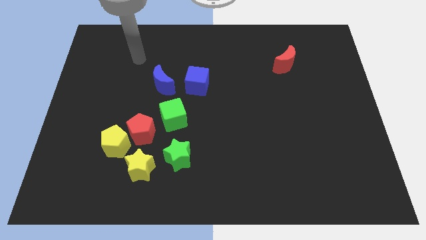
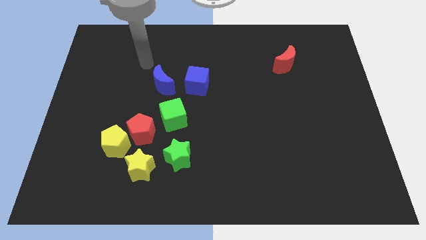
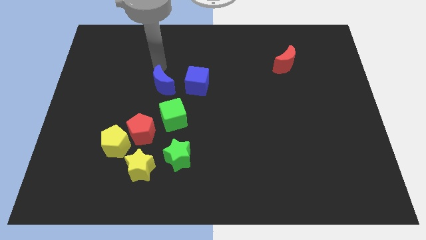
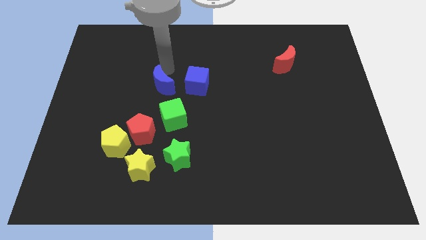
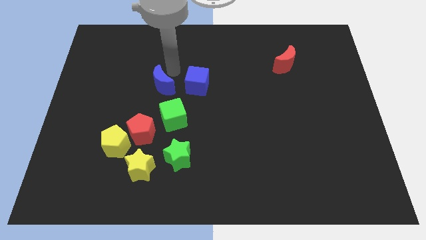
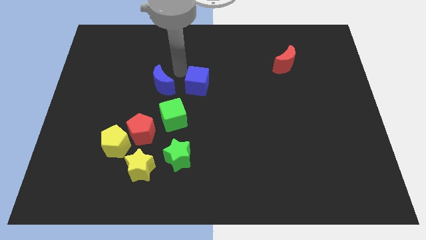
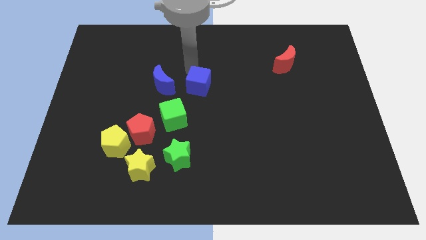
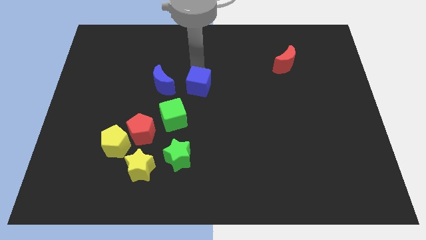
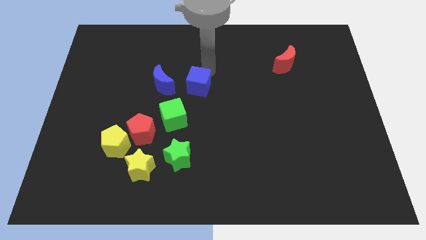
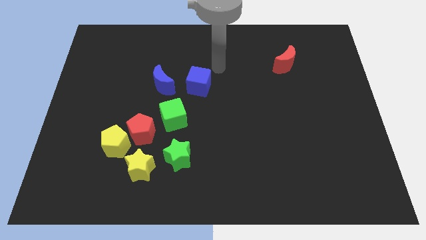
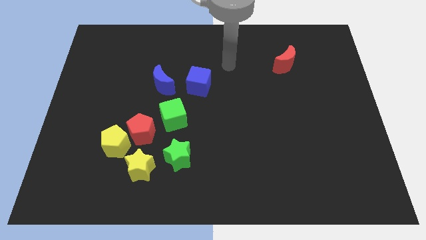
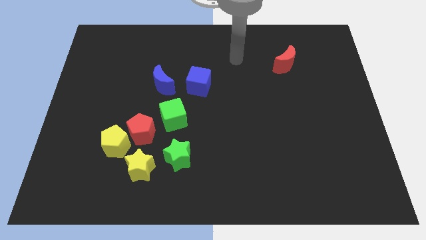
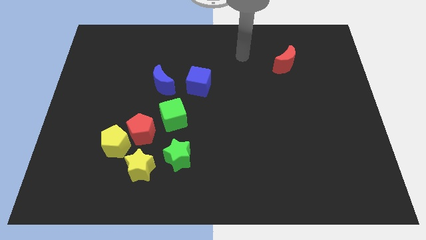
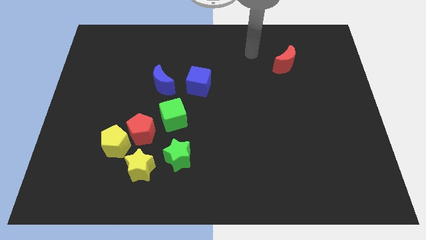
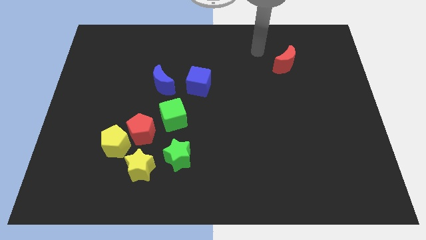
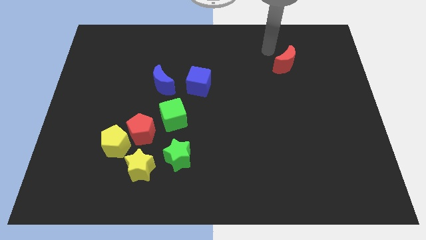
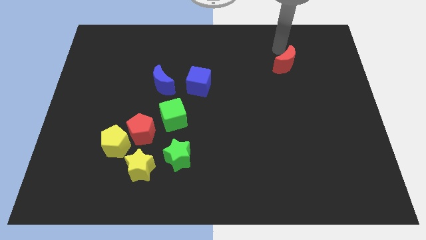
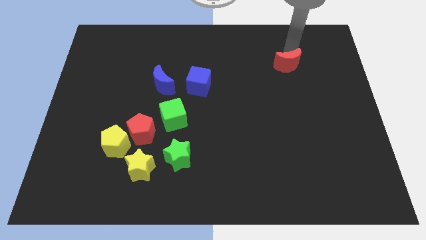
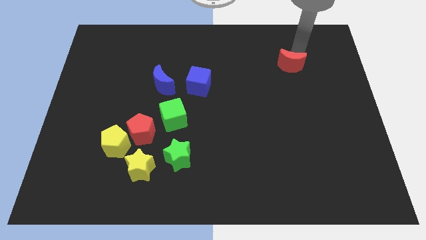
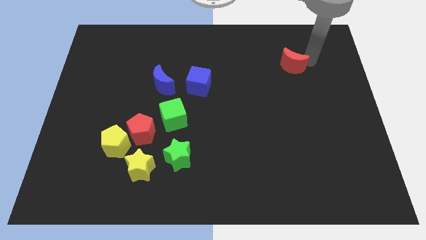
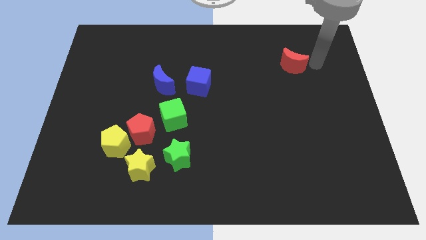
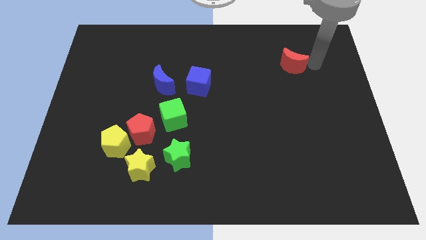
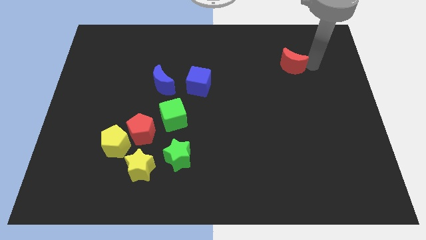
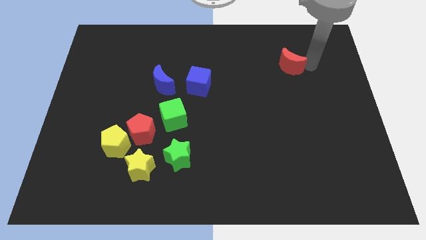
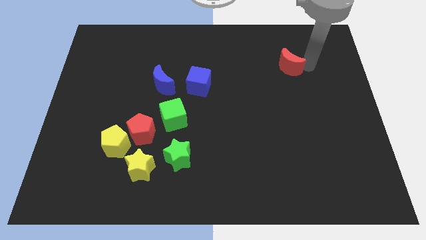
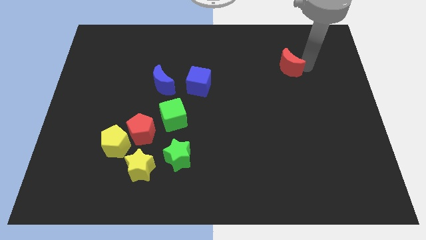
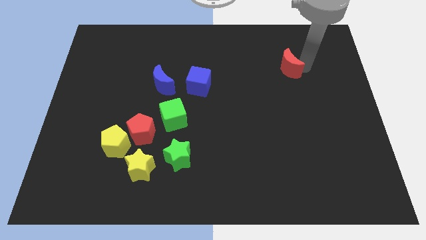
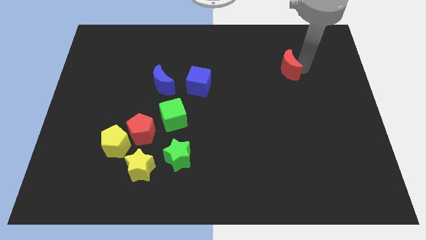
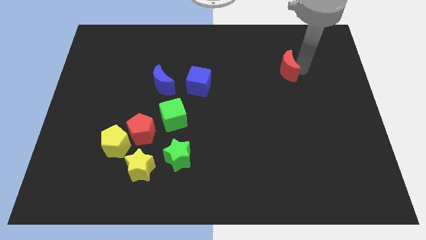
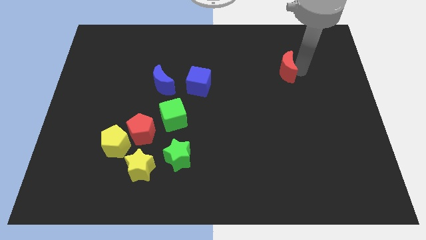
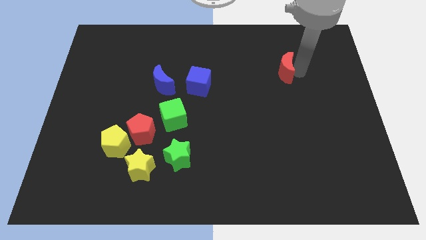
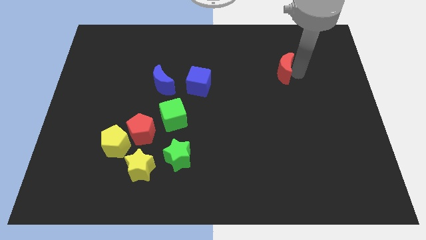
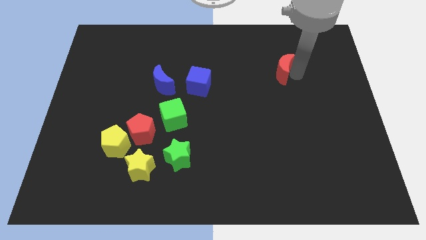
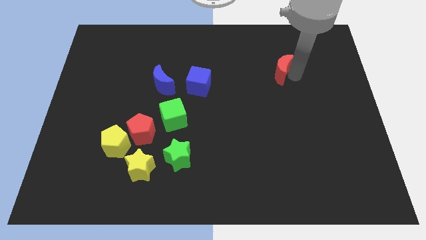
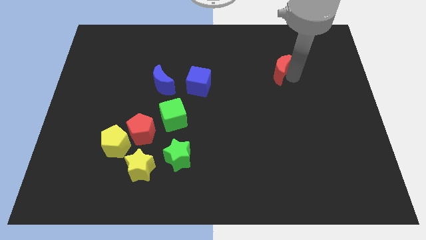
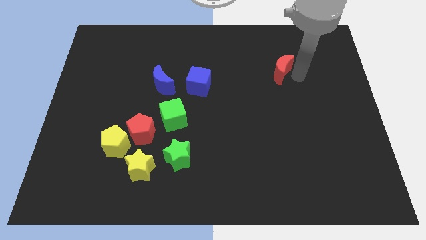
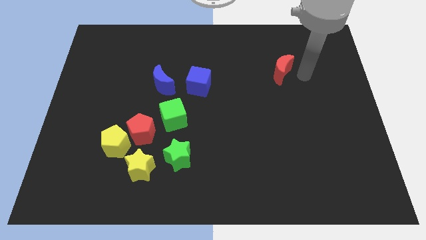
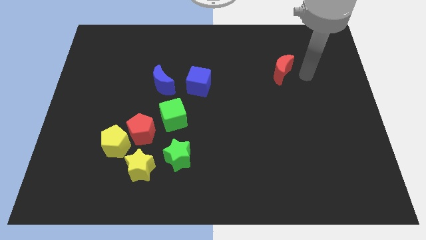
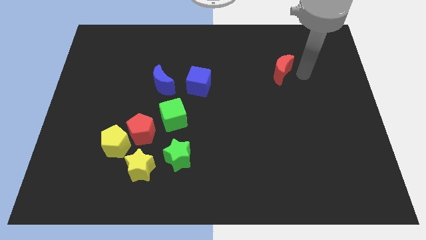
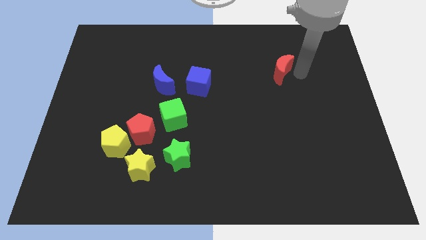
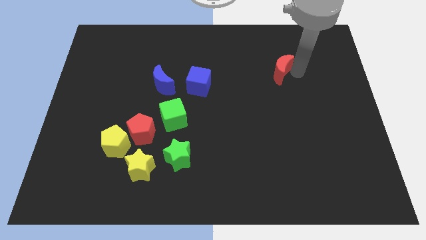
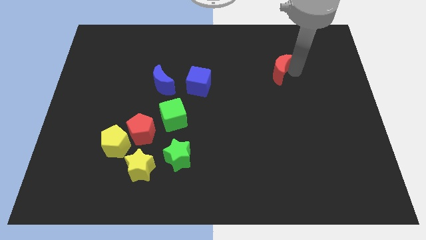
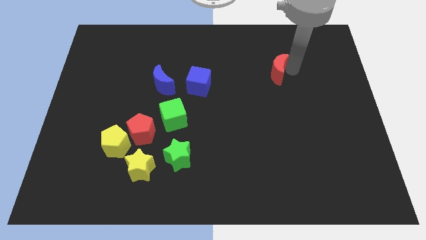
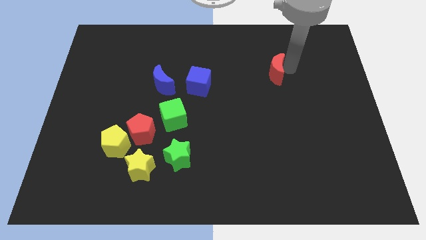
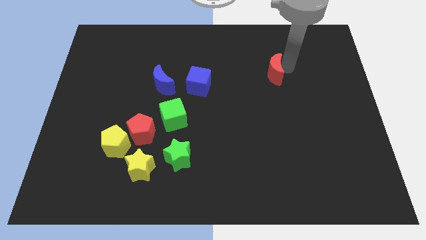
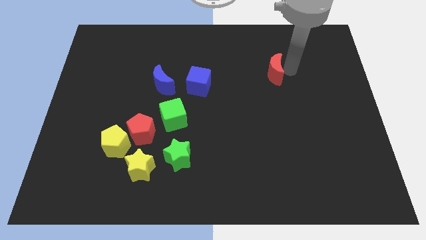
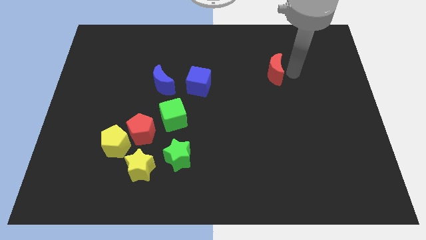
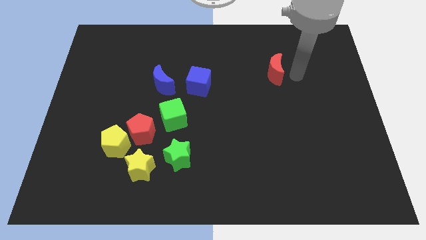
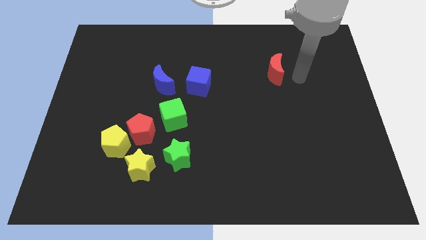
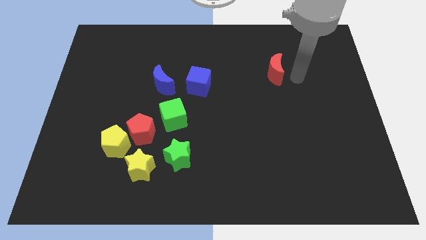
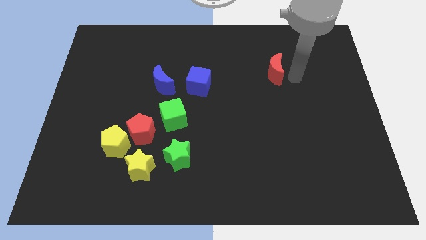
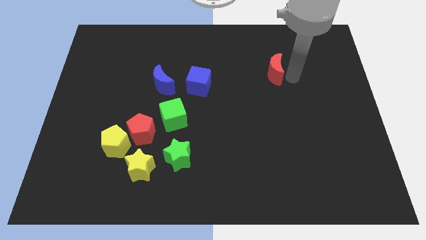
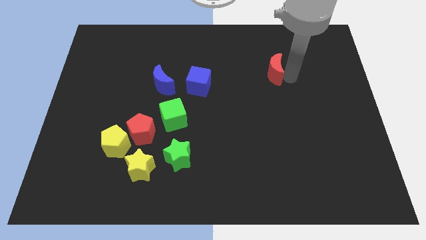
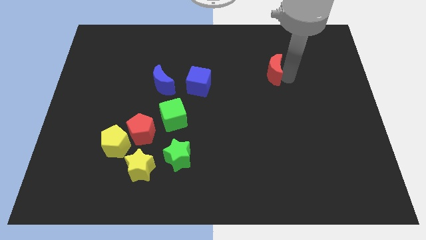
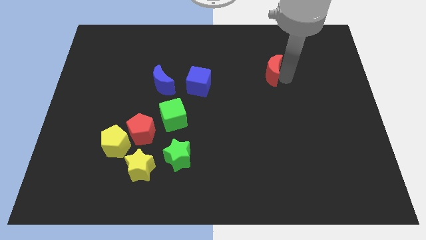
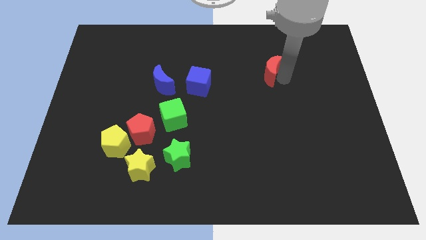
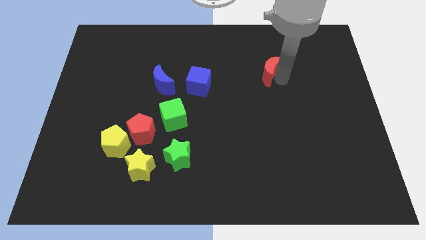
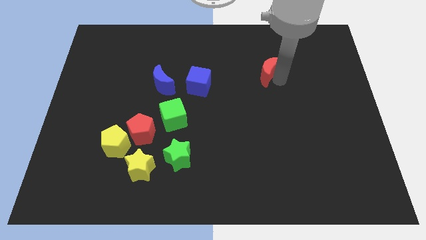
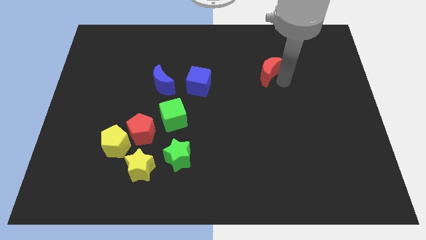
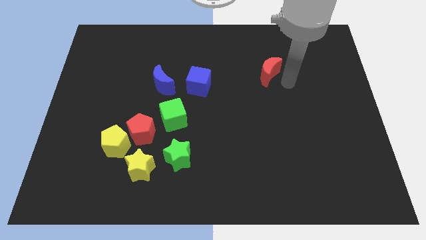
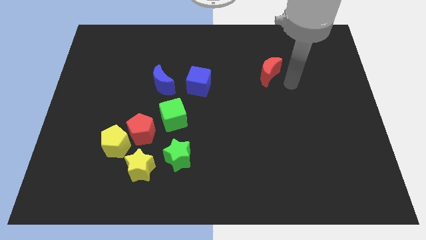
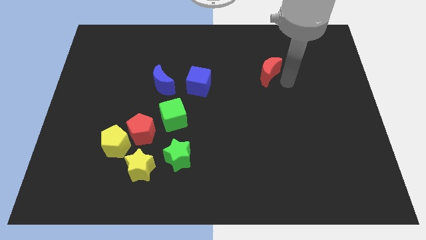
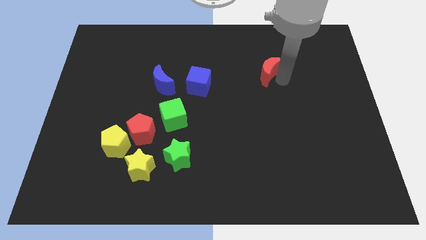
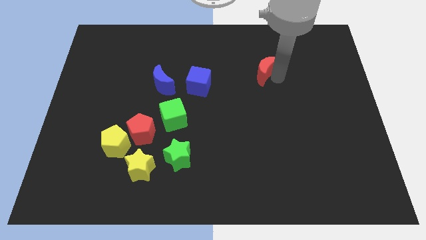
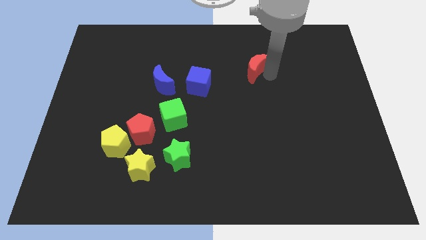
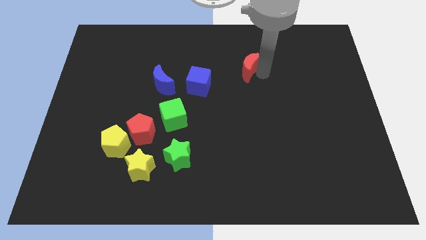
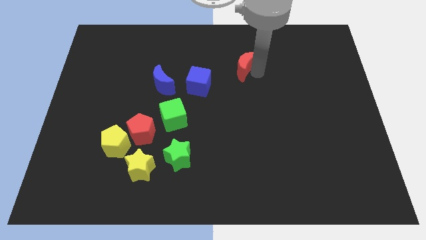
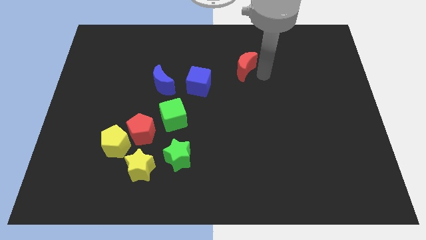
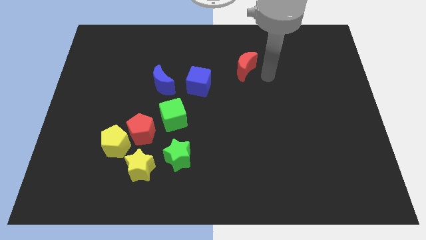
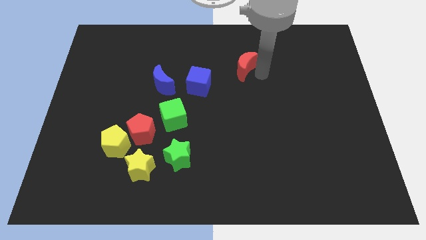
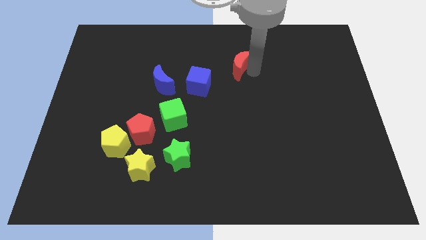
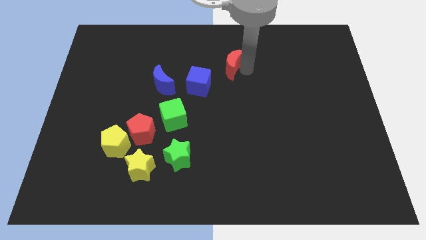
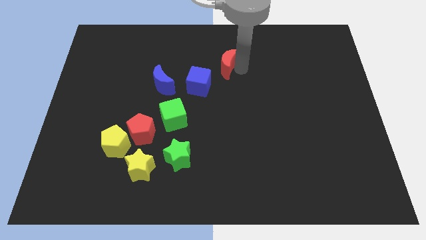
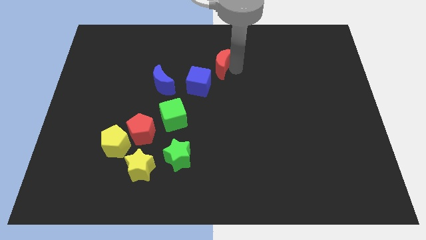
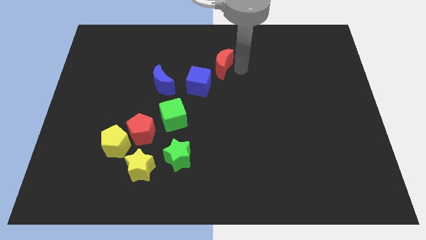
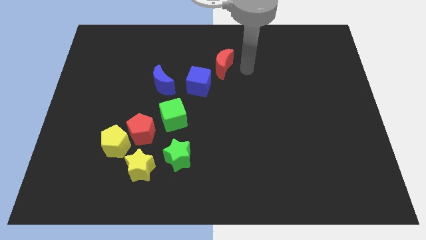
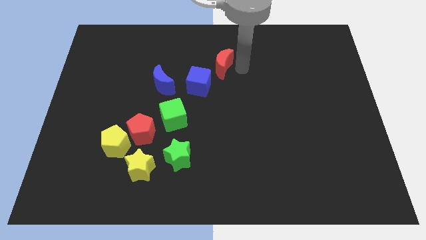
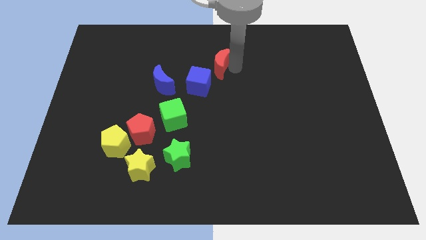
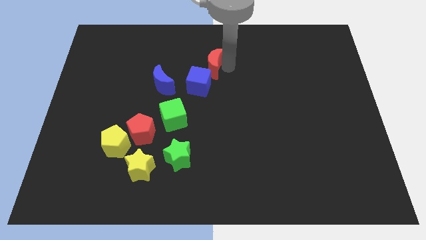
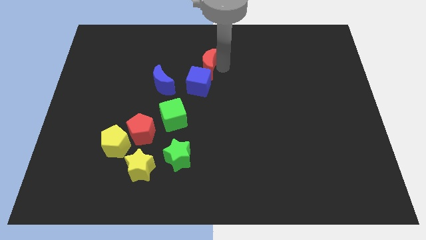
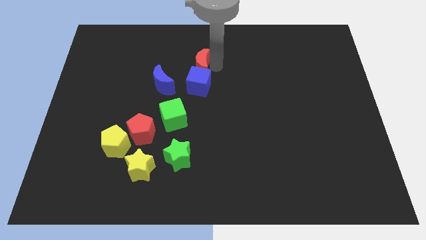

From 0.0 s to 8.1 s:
push the red moon diagonally up and to the left of the blue cube

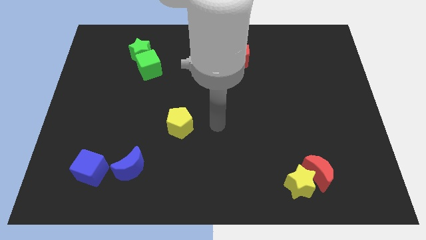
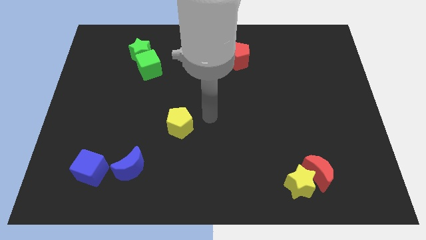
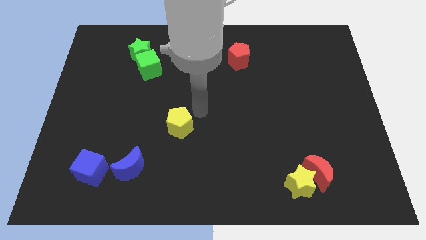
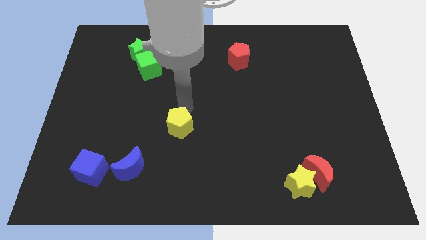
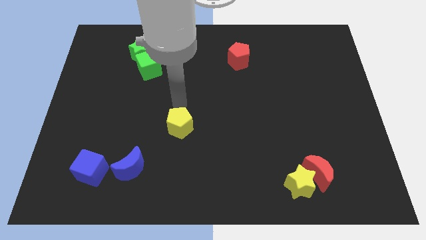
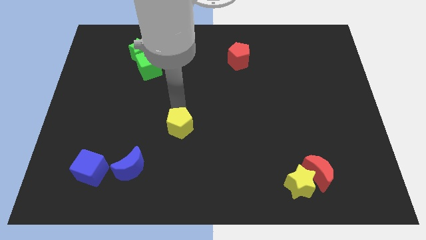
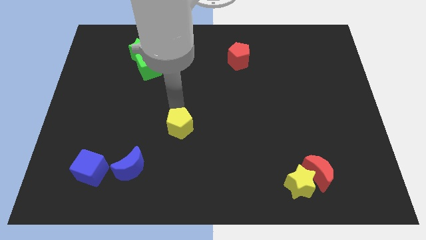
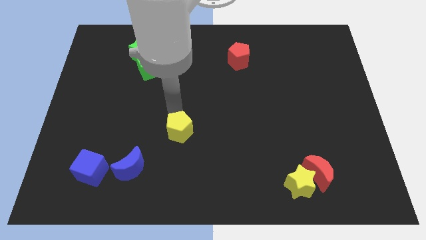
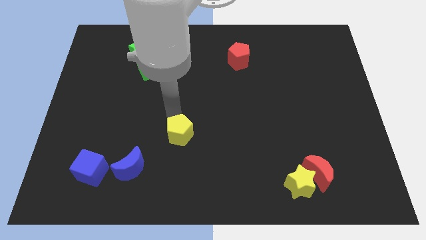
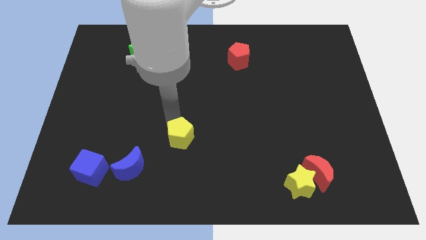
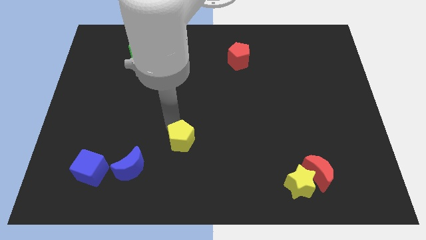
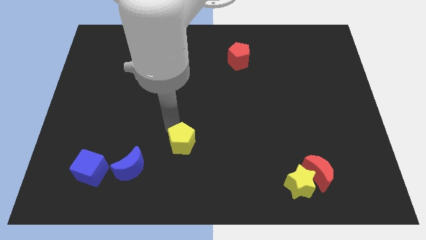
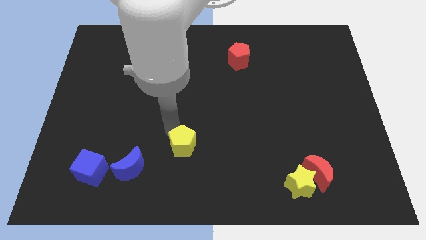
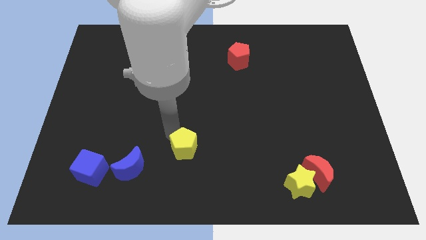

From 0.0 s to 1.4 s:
push the yellow pentagon just right of the blue moon
